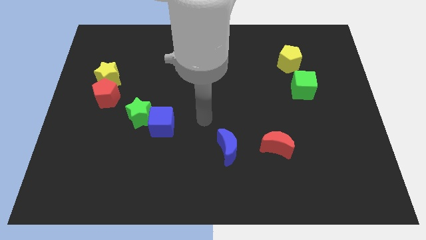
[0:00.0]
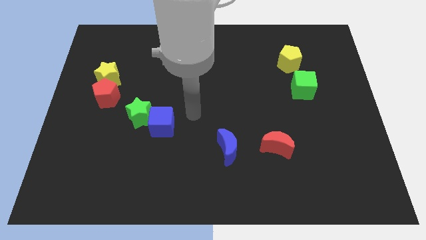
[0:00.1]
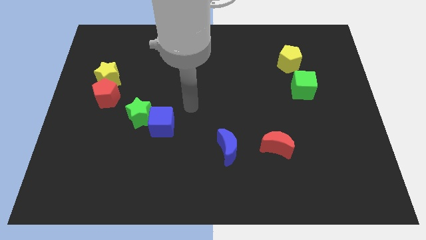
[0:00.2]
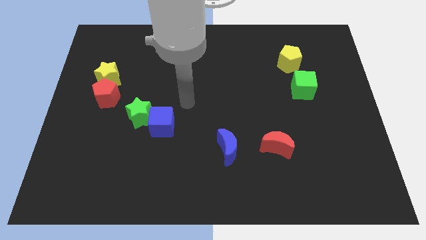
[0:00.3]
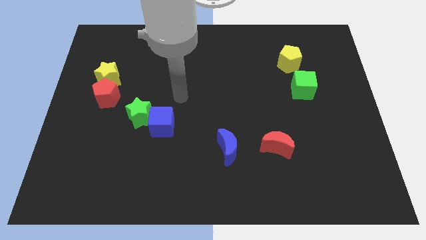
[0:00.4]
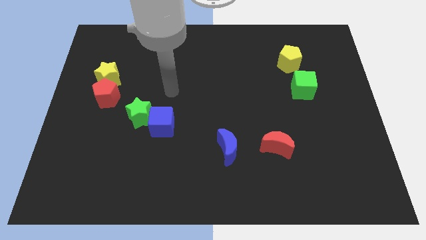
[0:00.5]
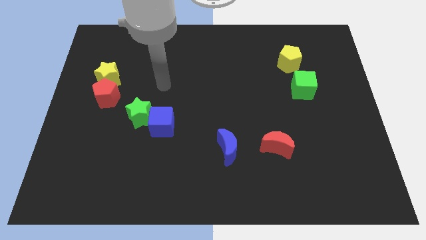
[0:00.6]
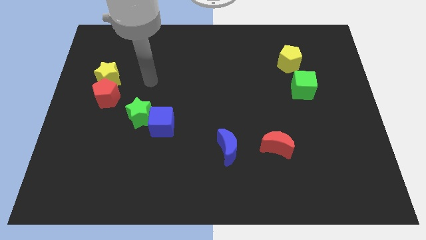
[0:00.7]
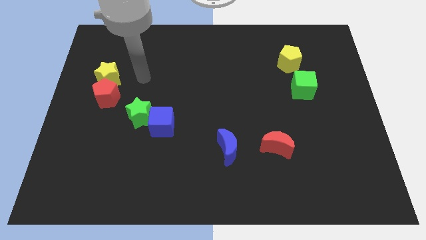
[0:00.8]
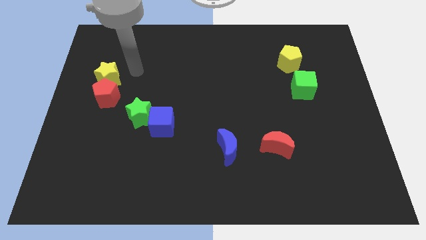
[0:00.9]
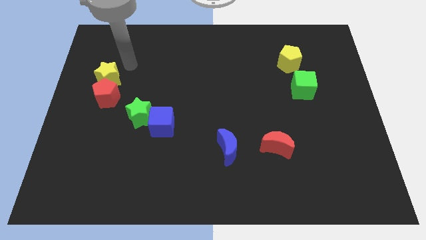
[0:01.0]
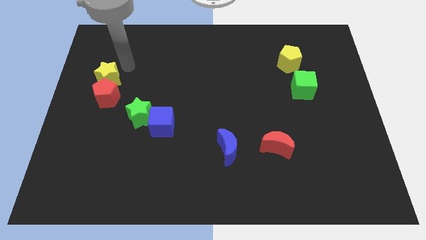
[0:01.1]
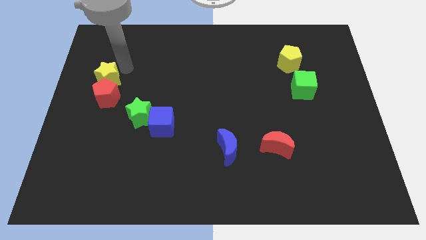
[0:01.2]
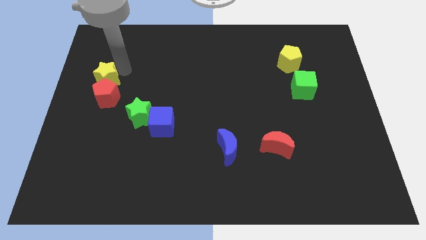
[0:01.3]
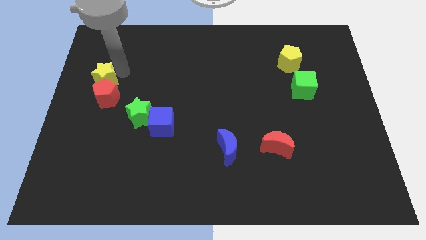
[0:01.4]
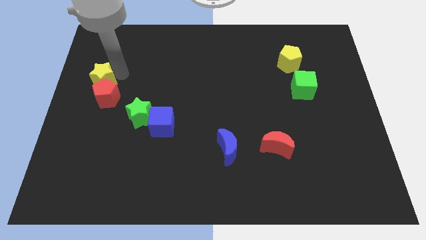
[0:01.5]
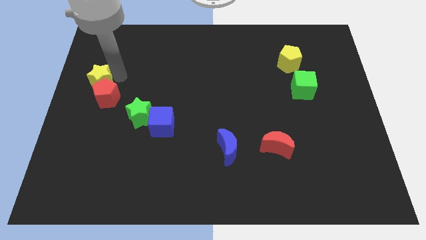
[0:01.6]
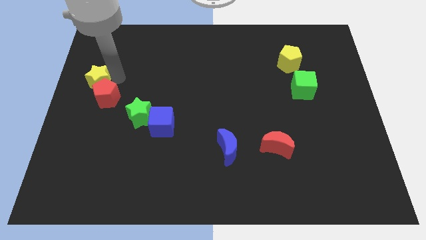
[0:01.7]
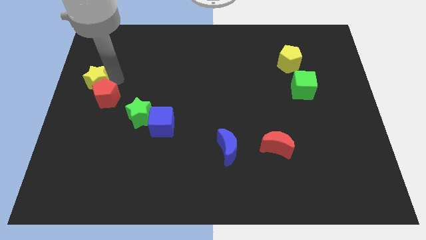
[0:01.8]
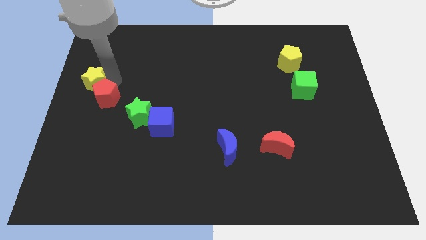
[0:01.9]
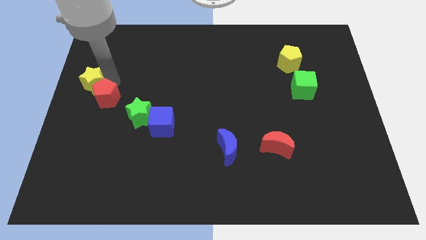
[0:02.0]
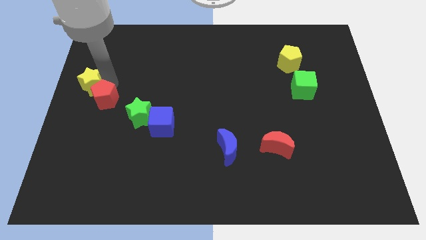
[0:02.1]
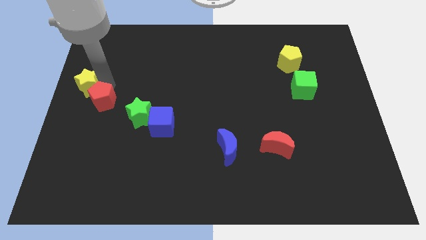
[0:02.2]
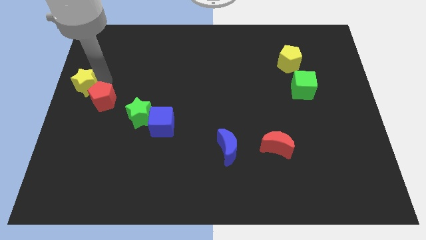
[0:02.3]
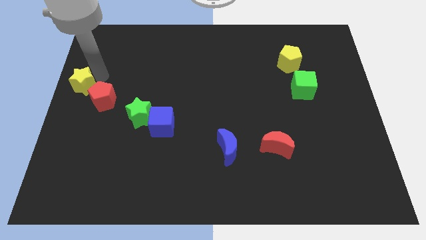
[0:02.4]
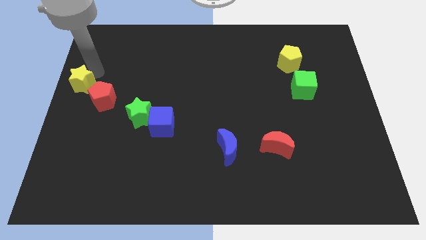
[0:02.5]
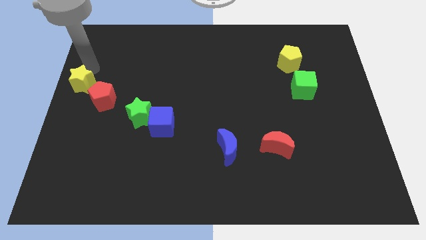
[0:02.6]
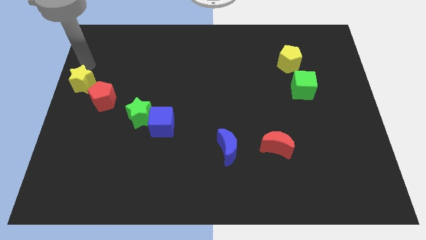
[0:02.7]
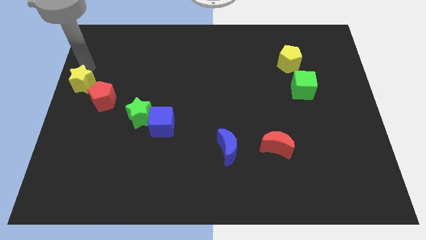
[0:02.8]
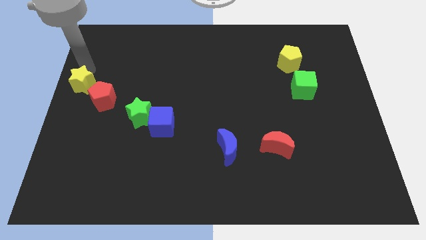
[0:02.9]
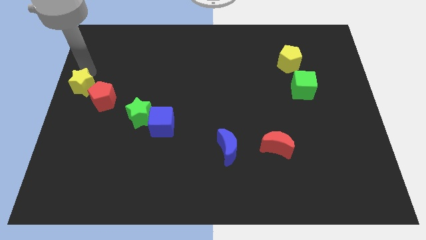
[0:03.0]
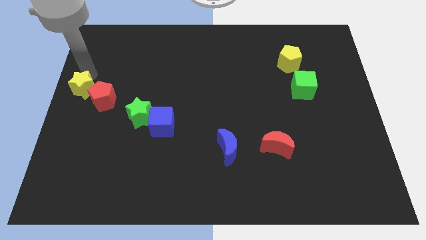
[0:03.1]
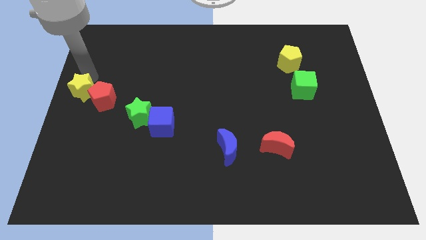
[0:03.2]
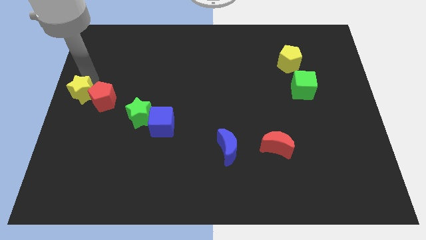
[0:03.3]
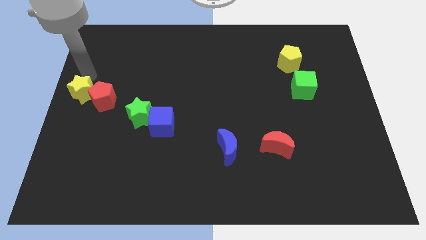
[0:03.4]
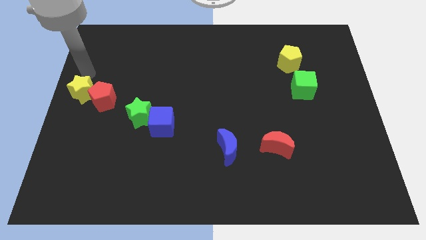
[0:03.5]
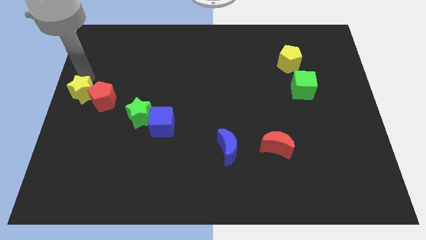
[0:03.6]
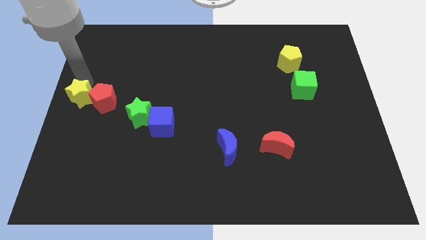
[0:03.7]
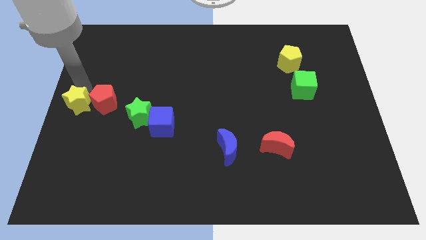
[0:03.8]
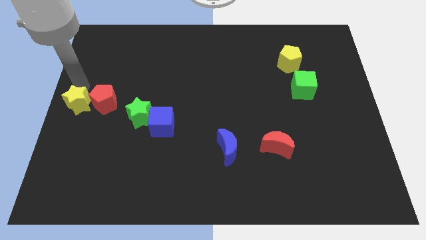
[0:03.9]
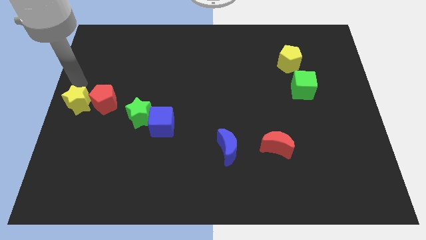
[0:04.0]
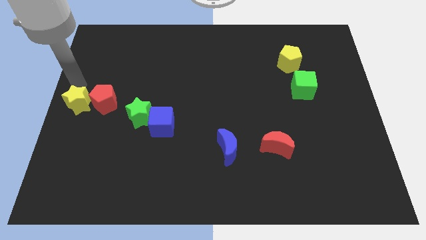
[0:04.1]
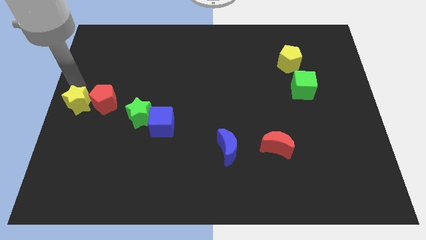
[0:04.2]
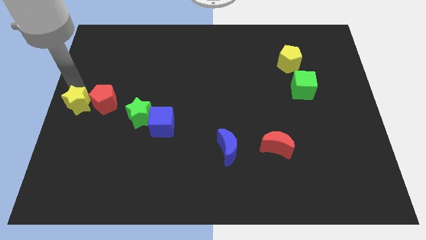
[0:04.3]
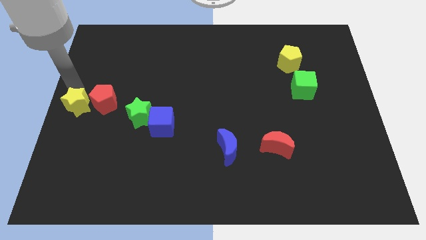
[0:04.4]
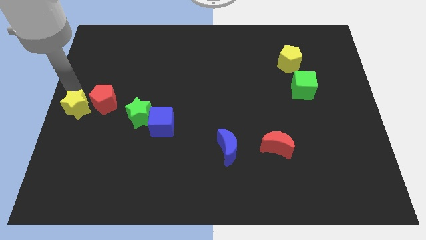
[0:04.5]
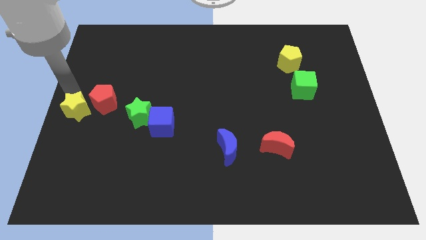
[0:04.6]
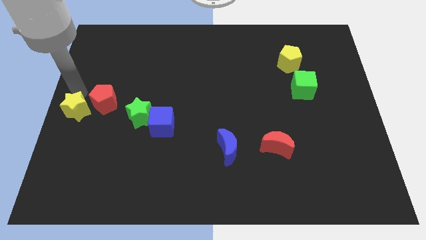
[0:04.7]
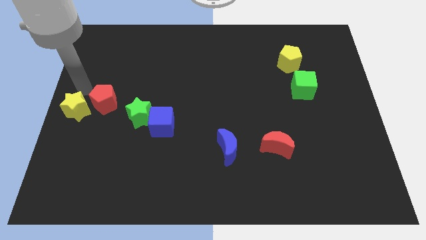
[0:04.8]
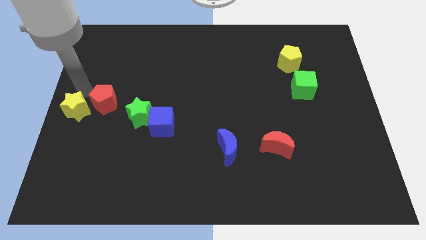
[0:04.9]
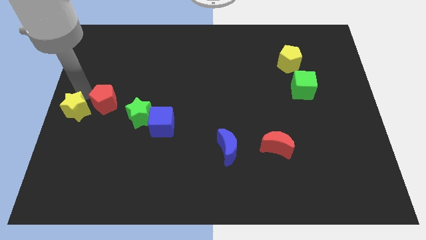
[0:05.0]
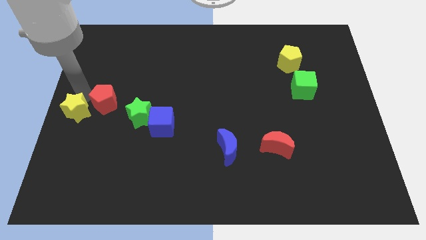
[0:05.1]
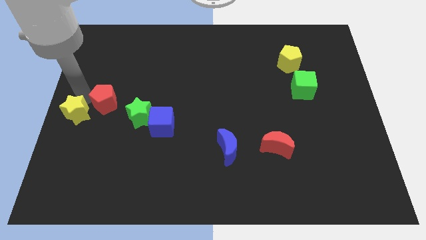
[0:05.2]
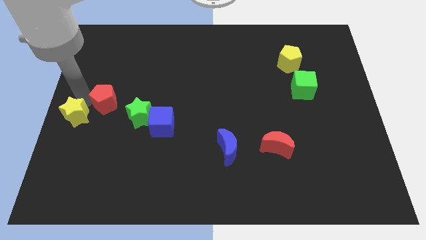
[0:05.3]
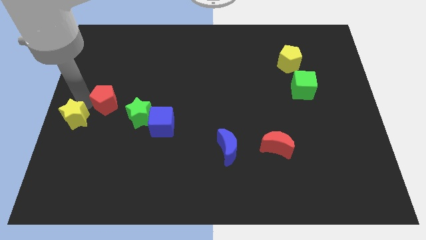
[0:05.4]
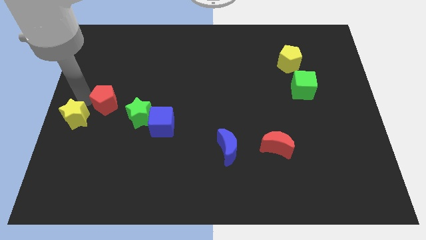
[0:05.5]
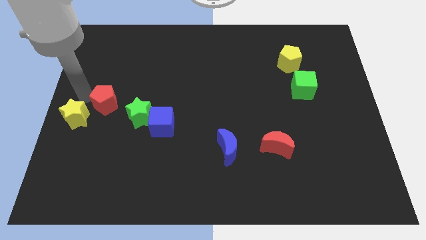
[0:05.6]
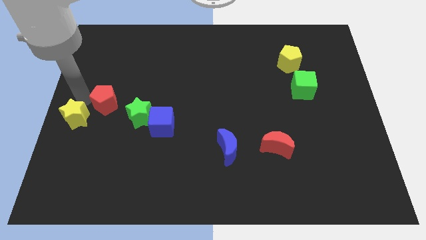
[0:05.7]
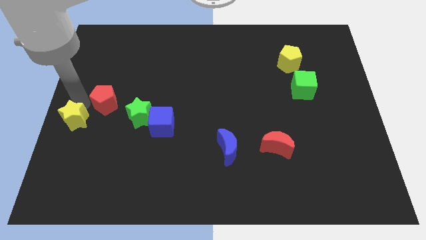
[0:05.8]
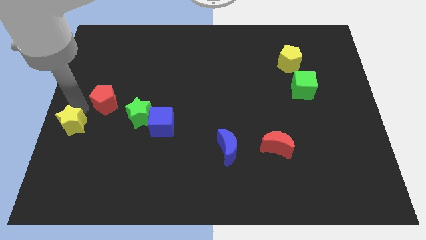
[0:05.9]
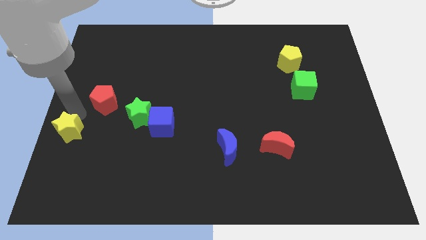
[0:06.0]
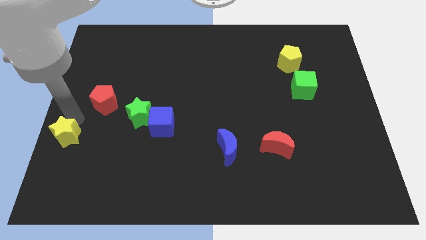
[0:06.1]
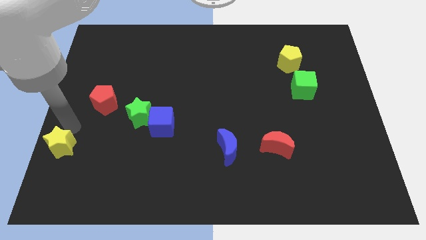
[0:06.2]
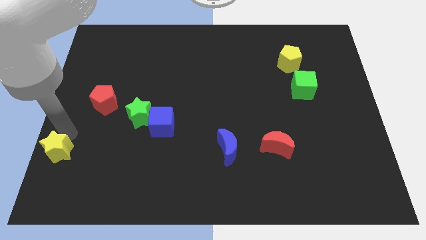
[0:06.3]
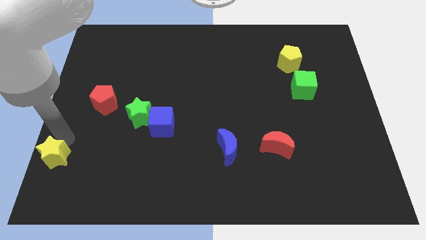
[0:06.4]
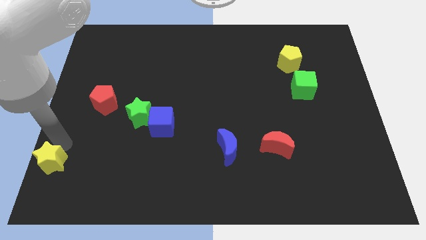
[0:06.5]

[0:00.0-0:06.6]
move the yellow star to the lower left corner

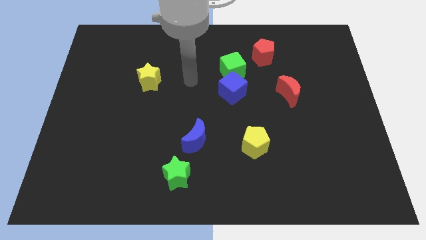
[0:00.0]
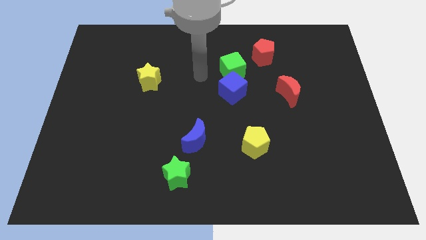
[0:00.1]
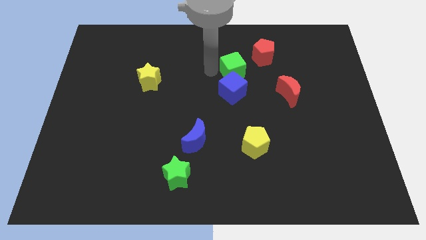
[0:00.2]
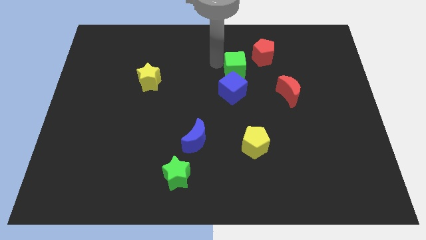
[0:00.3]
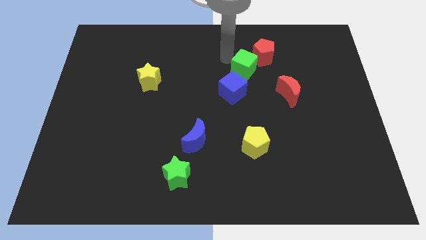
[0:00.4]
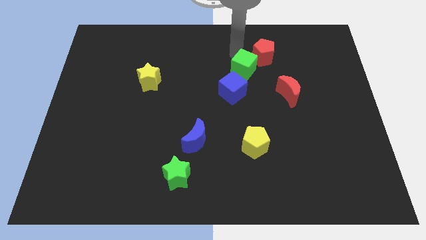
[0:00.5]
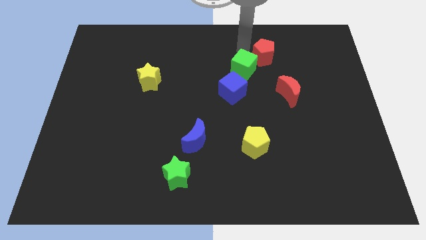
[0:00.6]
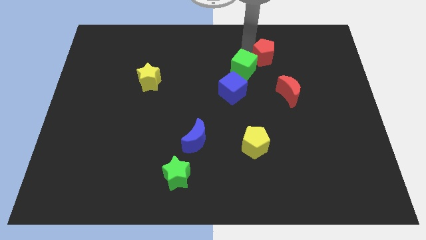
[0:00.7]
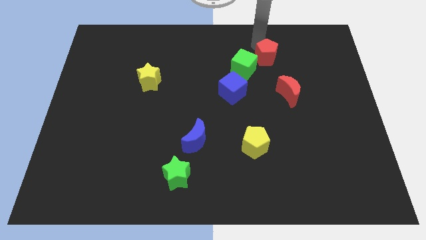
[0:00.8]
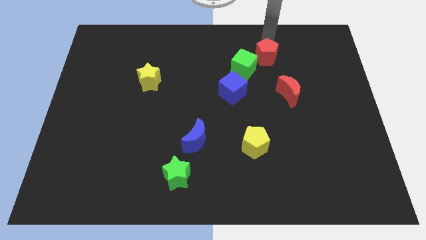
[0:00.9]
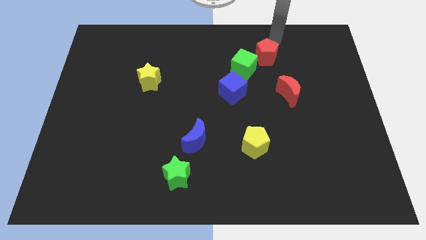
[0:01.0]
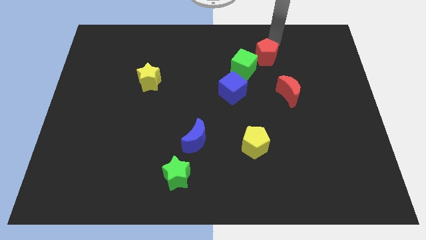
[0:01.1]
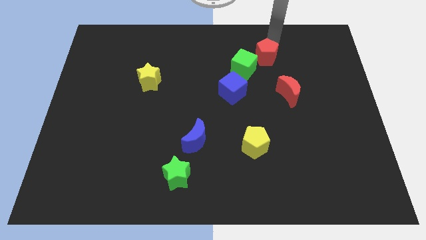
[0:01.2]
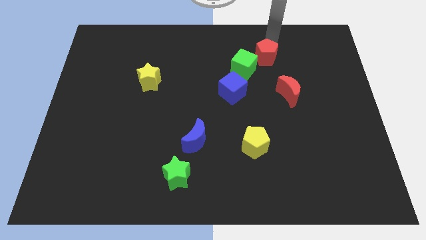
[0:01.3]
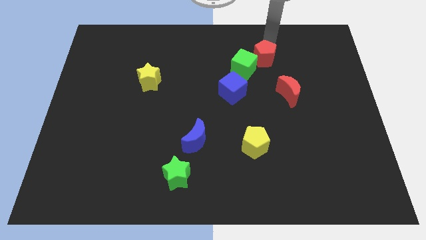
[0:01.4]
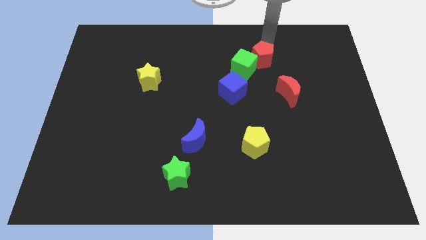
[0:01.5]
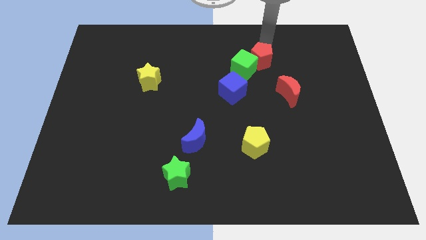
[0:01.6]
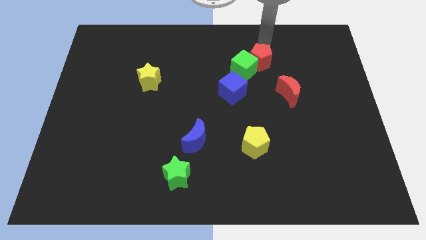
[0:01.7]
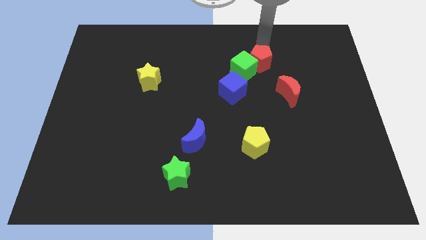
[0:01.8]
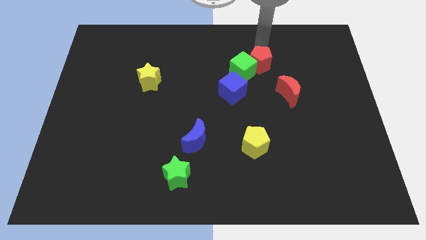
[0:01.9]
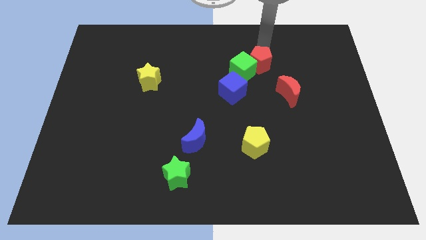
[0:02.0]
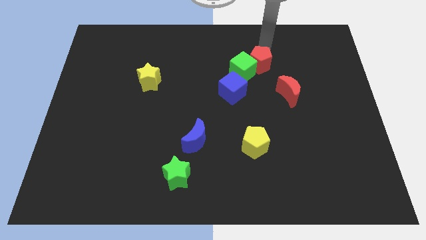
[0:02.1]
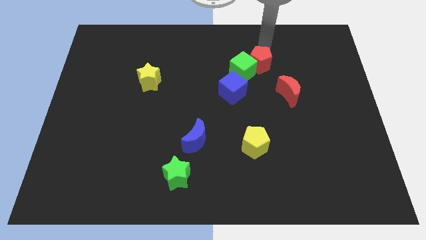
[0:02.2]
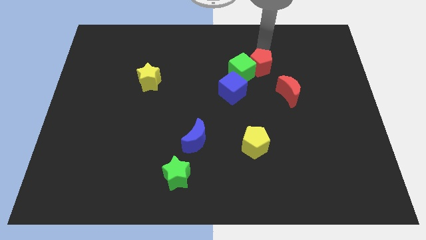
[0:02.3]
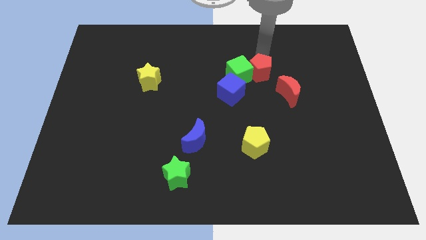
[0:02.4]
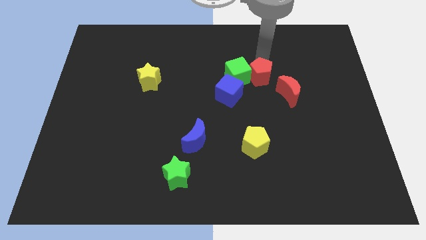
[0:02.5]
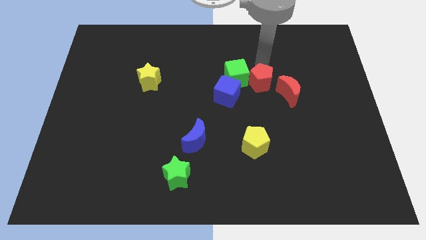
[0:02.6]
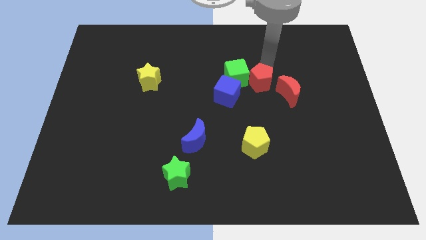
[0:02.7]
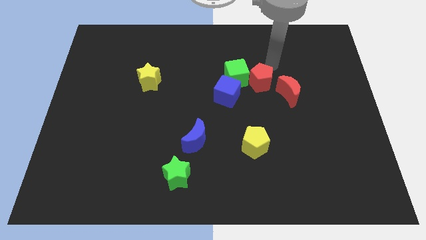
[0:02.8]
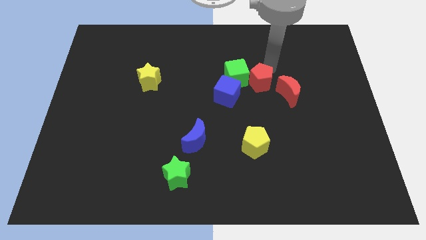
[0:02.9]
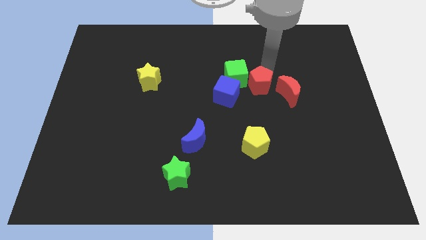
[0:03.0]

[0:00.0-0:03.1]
move the red pentagon to the middle of the board
